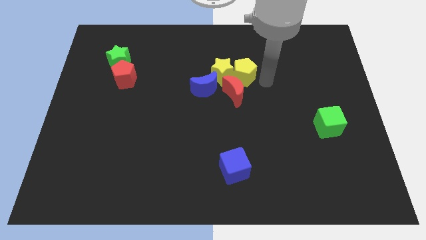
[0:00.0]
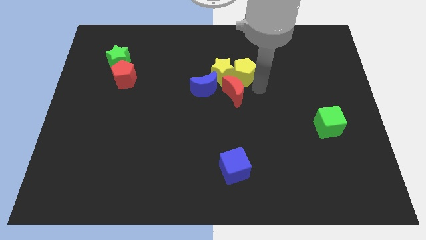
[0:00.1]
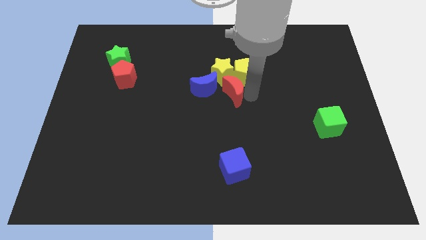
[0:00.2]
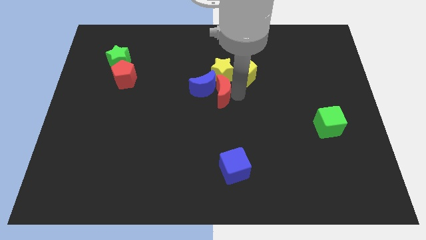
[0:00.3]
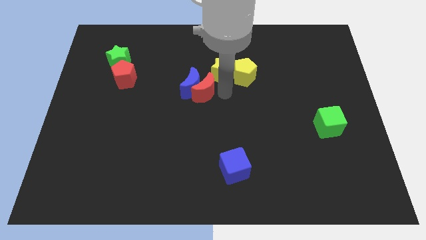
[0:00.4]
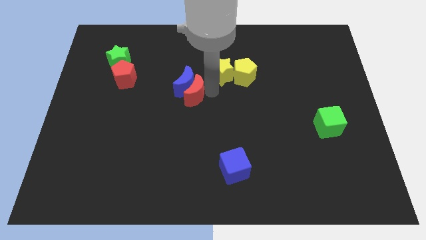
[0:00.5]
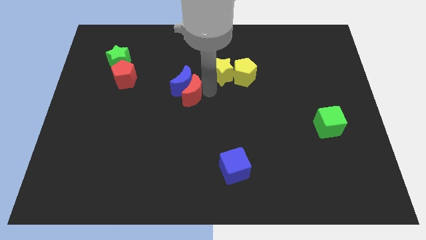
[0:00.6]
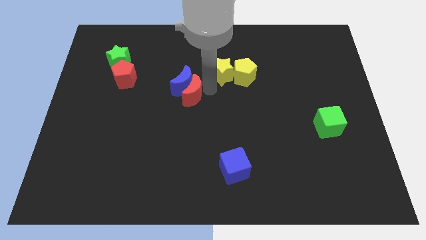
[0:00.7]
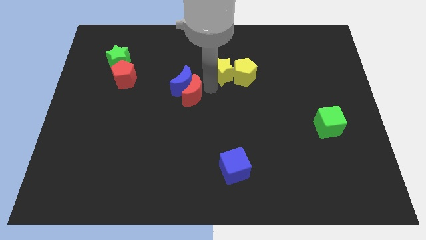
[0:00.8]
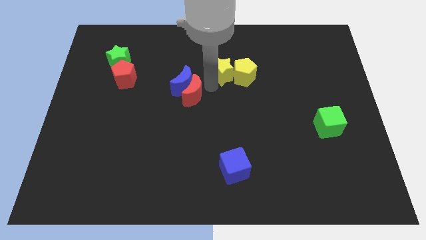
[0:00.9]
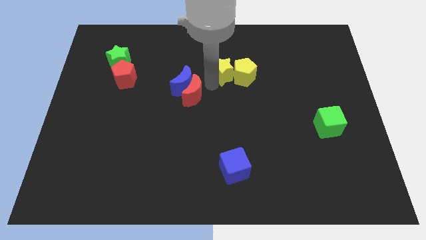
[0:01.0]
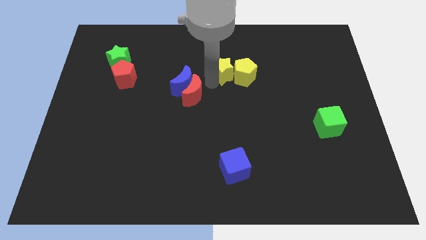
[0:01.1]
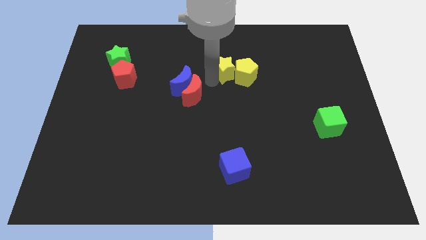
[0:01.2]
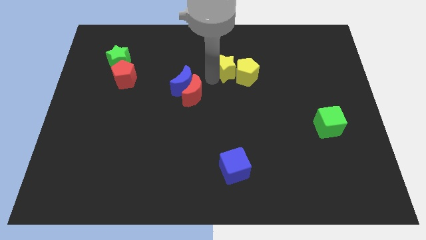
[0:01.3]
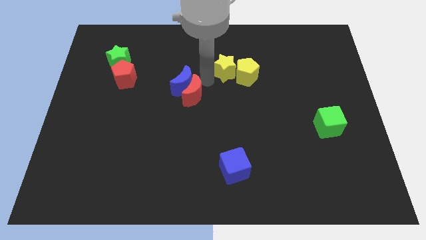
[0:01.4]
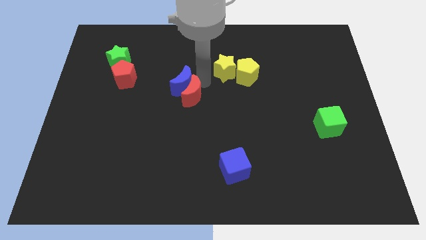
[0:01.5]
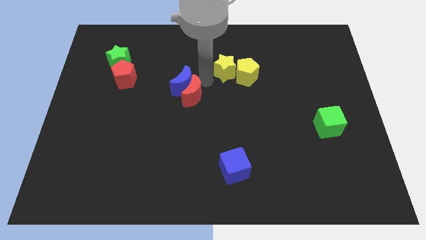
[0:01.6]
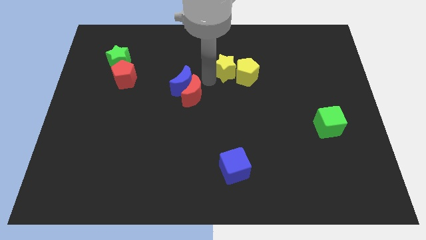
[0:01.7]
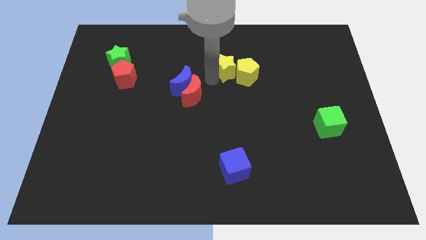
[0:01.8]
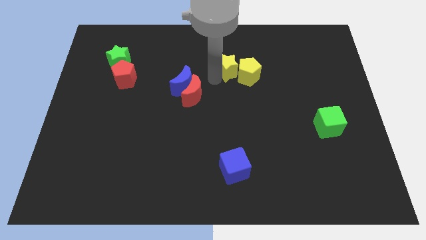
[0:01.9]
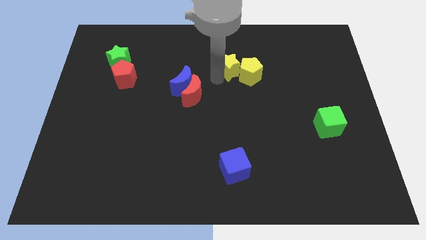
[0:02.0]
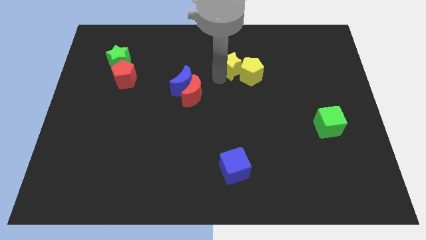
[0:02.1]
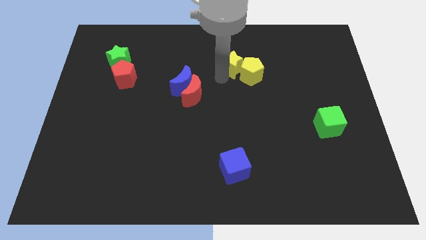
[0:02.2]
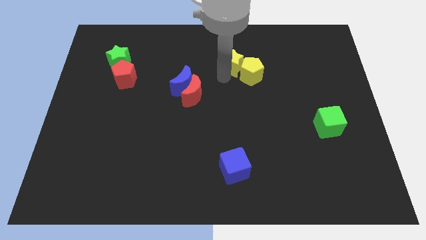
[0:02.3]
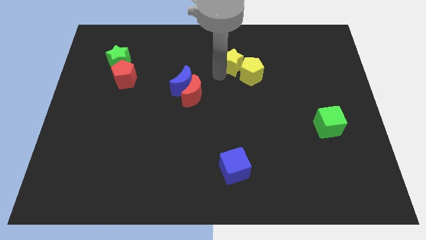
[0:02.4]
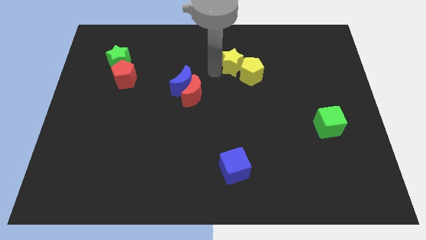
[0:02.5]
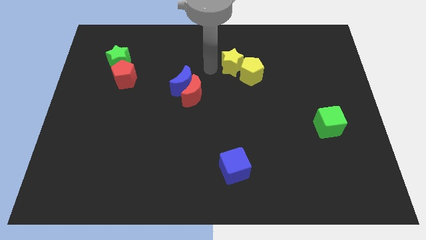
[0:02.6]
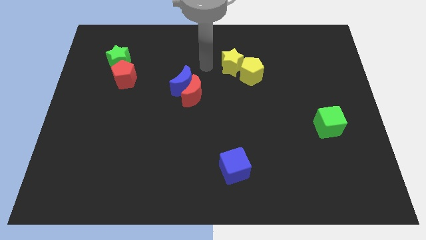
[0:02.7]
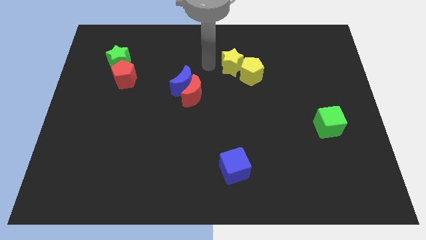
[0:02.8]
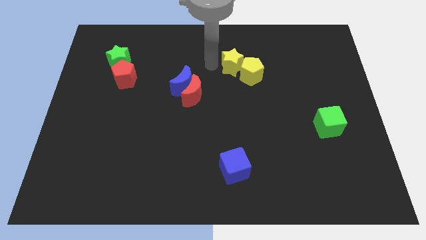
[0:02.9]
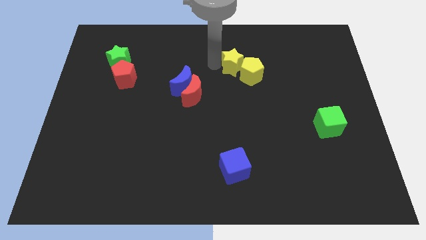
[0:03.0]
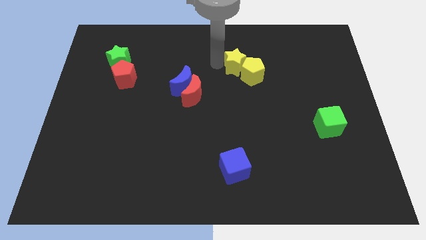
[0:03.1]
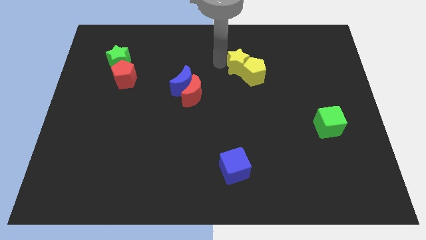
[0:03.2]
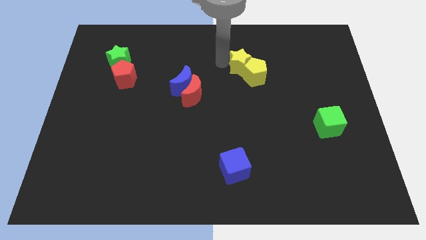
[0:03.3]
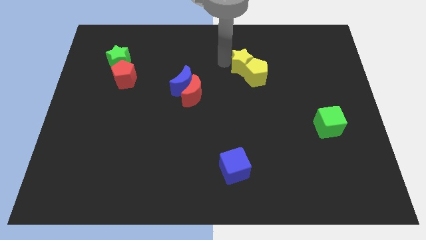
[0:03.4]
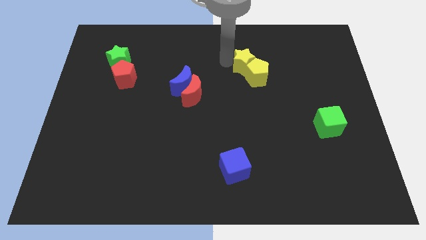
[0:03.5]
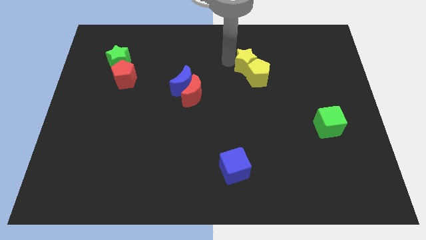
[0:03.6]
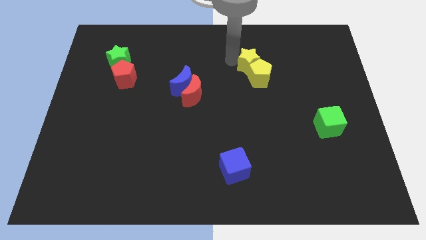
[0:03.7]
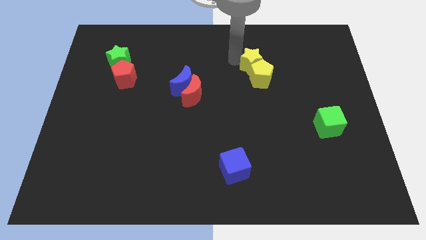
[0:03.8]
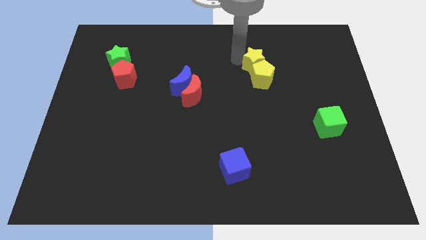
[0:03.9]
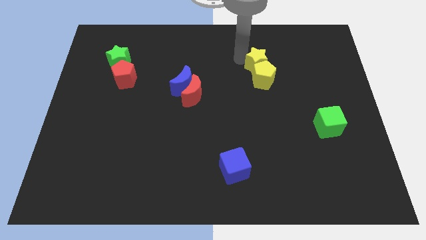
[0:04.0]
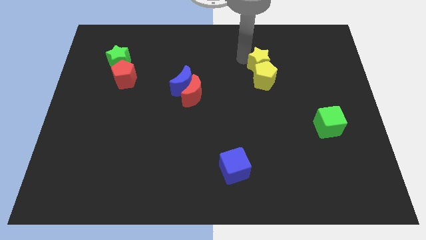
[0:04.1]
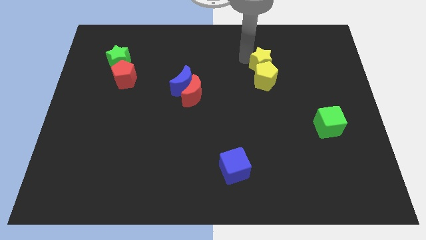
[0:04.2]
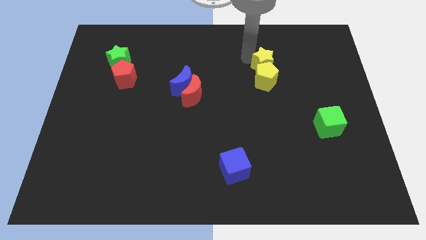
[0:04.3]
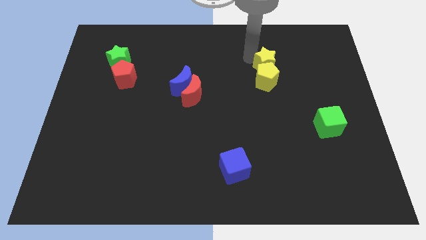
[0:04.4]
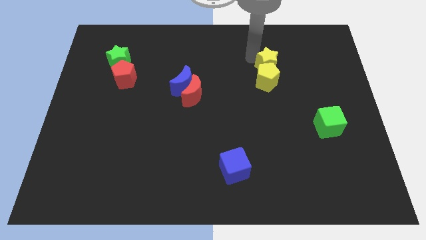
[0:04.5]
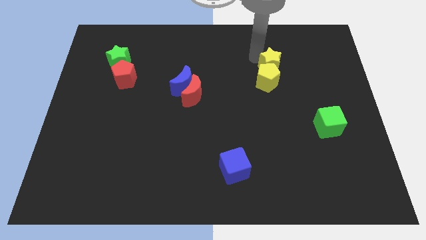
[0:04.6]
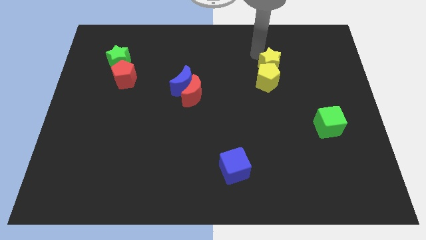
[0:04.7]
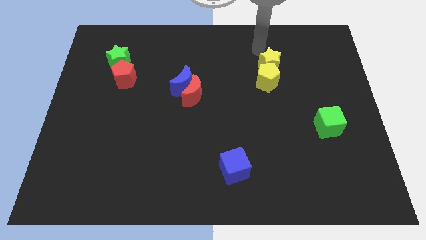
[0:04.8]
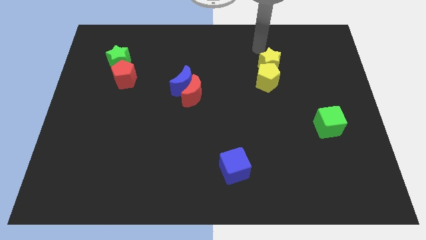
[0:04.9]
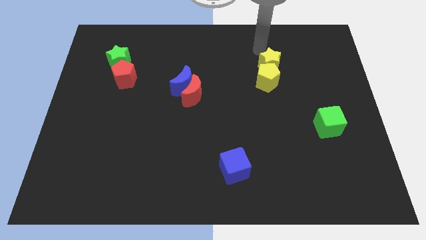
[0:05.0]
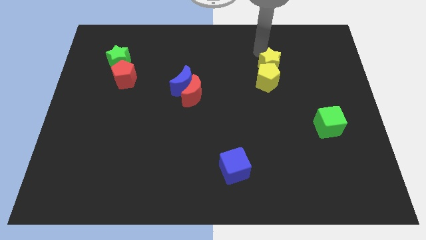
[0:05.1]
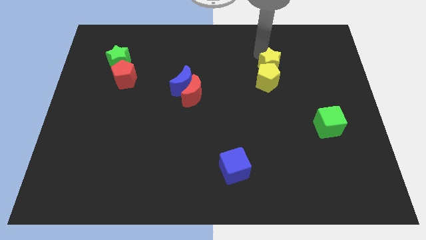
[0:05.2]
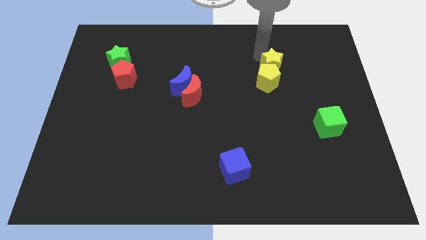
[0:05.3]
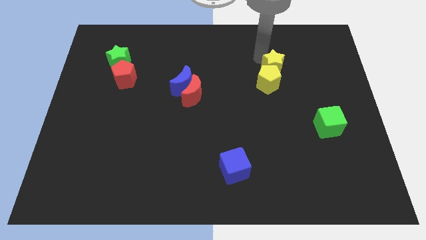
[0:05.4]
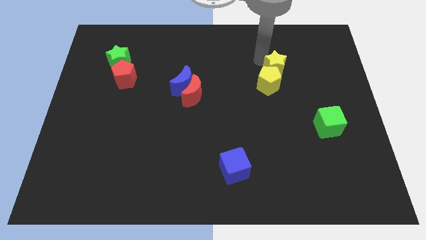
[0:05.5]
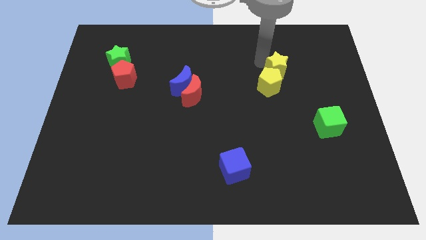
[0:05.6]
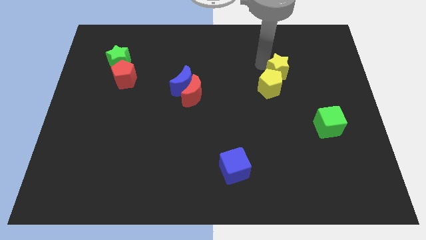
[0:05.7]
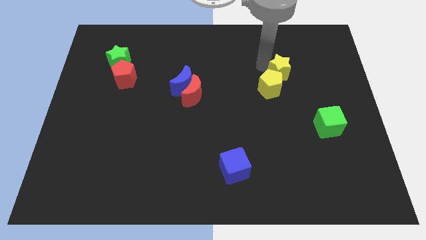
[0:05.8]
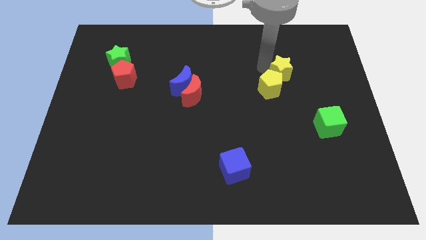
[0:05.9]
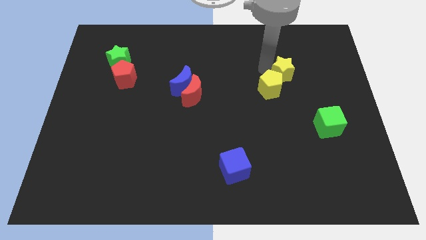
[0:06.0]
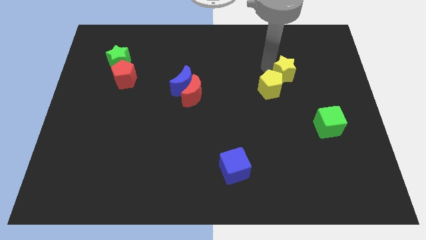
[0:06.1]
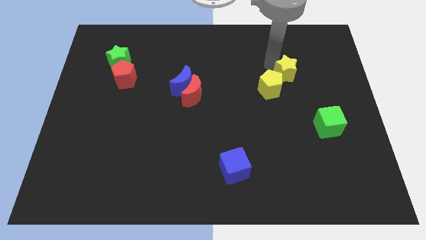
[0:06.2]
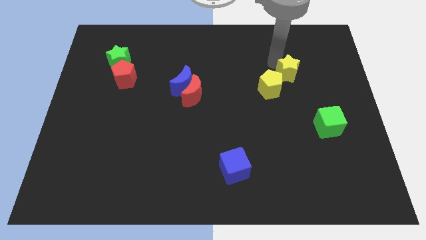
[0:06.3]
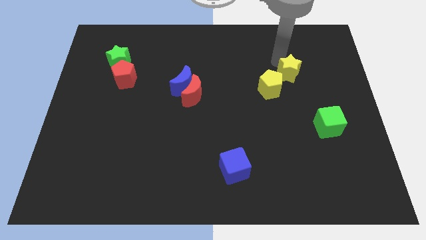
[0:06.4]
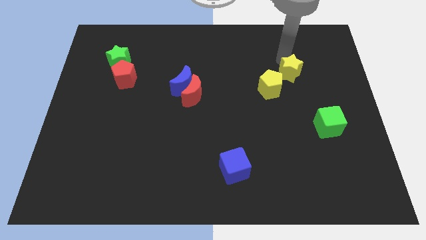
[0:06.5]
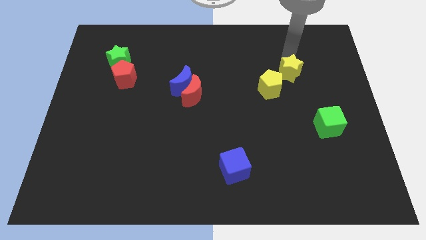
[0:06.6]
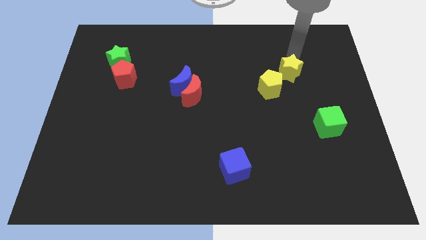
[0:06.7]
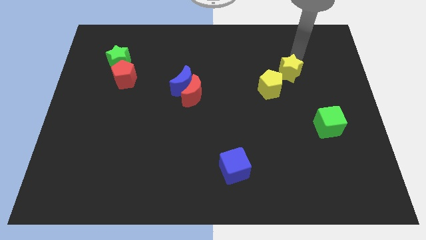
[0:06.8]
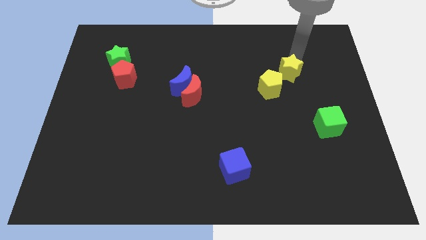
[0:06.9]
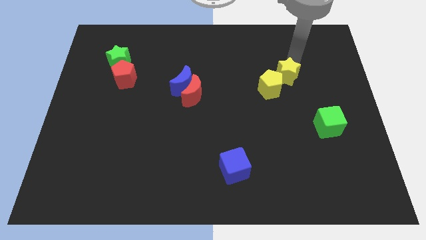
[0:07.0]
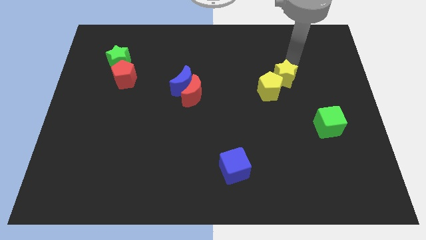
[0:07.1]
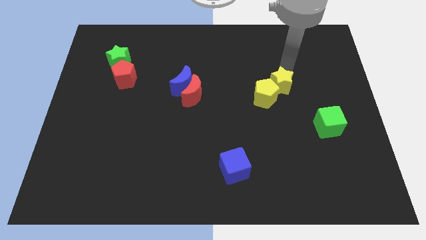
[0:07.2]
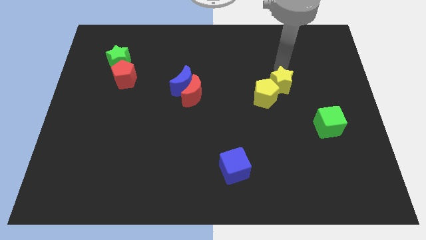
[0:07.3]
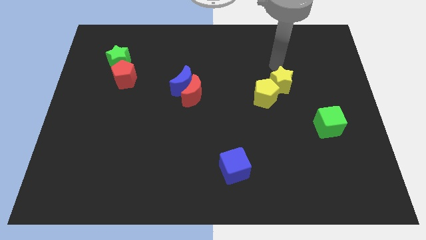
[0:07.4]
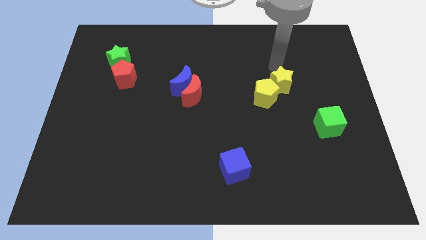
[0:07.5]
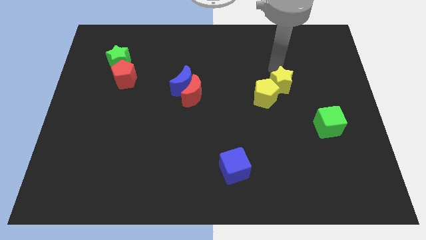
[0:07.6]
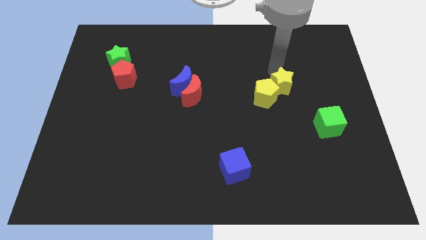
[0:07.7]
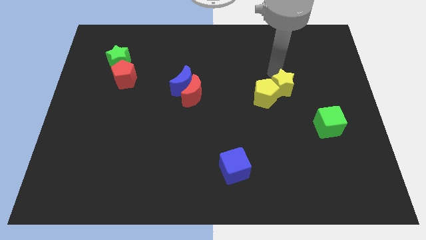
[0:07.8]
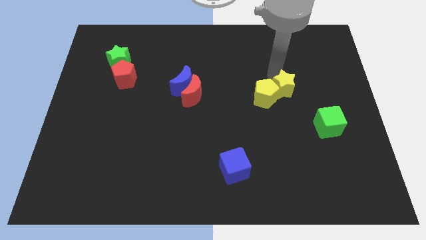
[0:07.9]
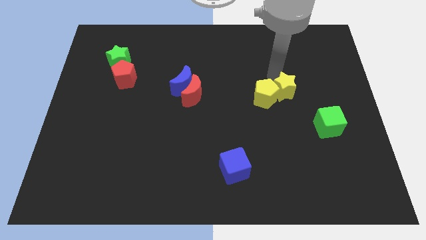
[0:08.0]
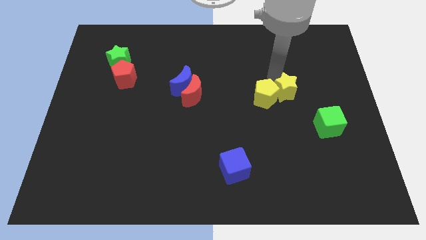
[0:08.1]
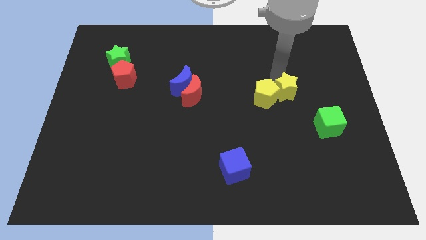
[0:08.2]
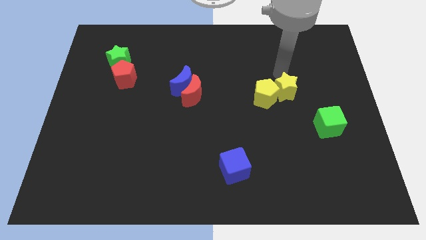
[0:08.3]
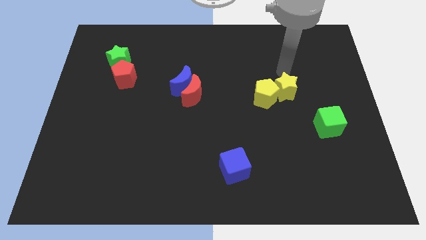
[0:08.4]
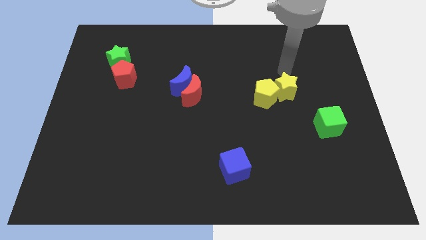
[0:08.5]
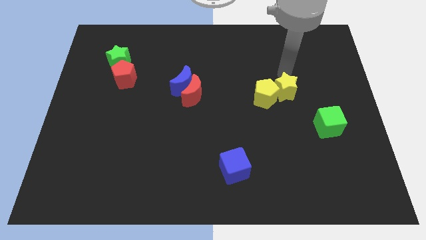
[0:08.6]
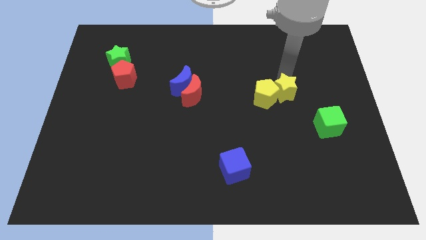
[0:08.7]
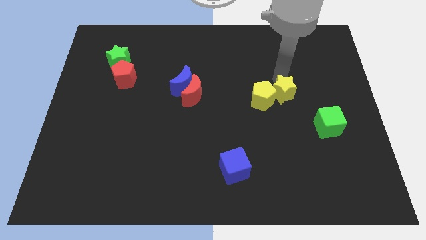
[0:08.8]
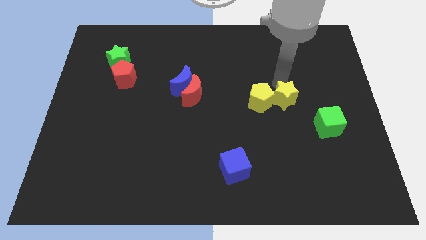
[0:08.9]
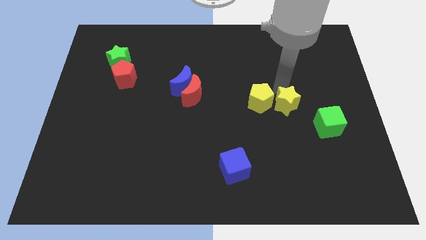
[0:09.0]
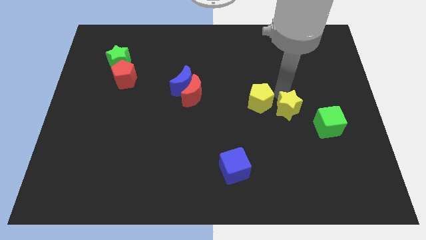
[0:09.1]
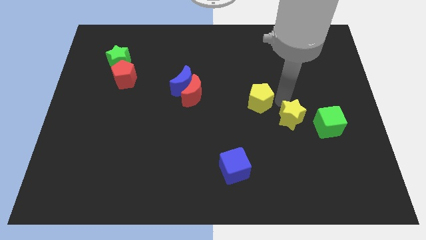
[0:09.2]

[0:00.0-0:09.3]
move the yellow star diagonally downwards and right
